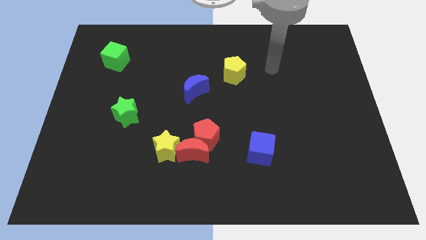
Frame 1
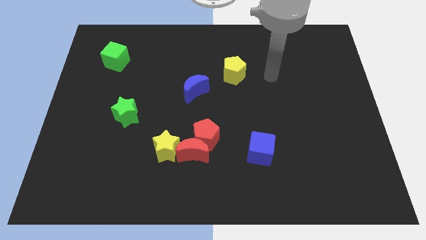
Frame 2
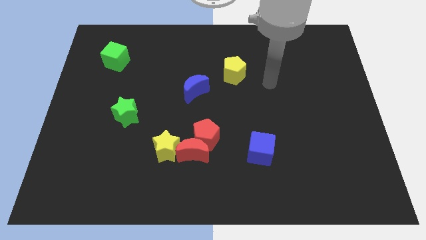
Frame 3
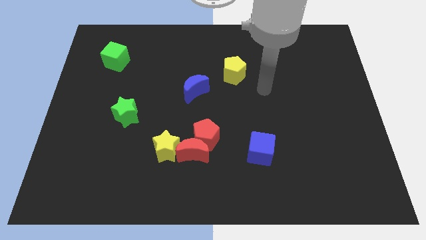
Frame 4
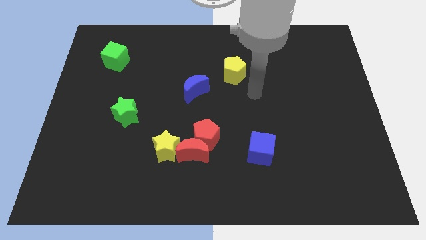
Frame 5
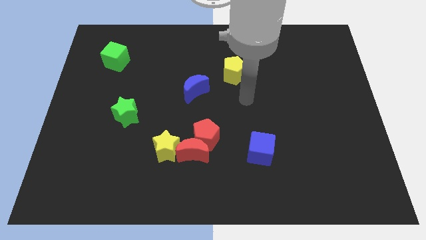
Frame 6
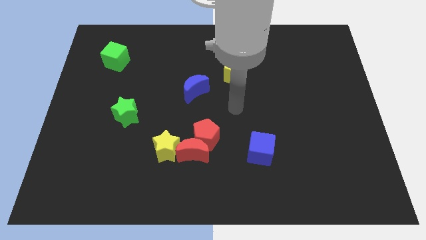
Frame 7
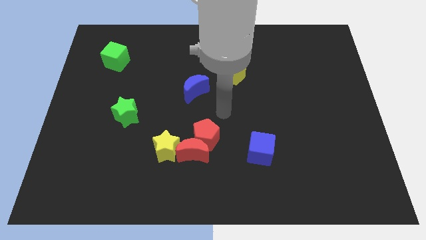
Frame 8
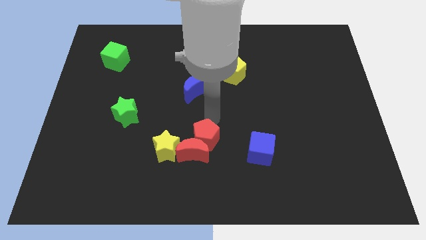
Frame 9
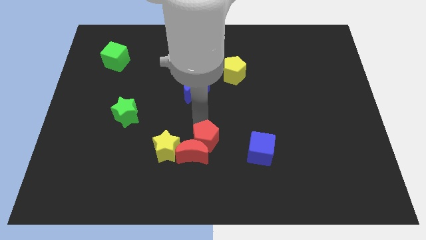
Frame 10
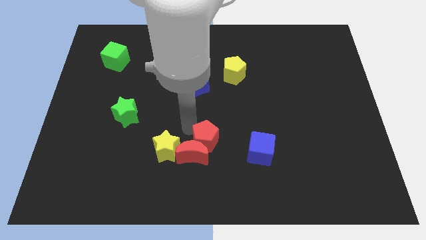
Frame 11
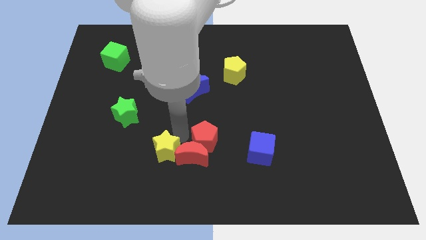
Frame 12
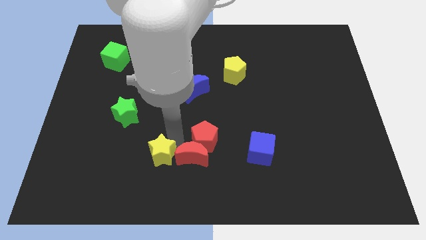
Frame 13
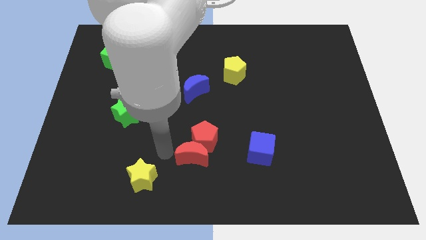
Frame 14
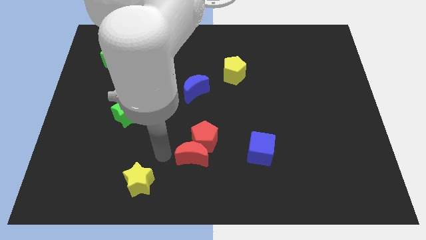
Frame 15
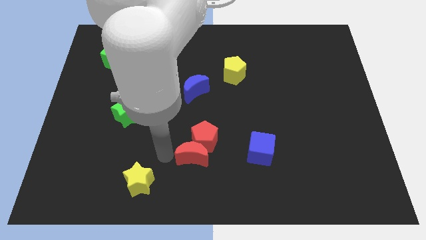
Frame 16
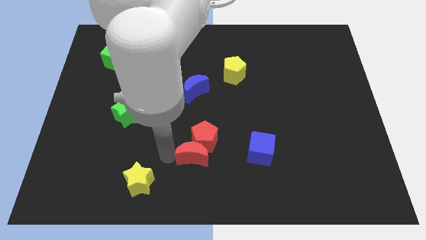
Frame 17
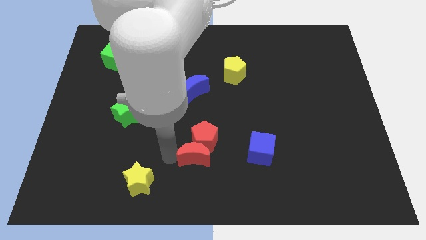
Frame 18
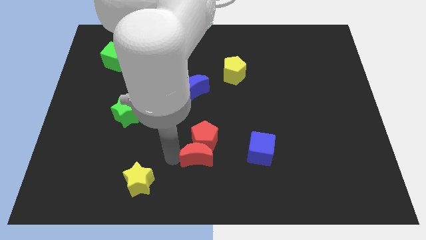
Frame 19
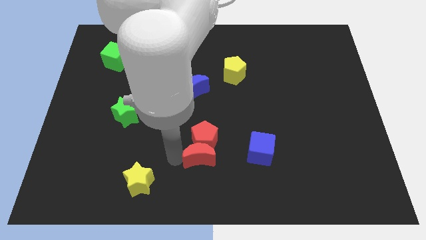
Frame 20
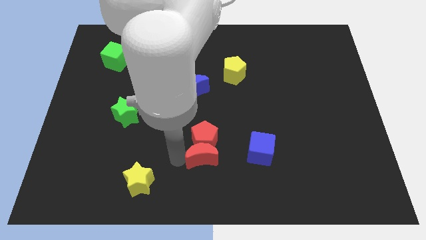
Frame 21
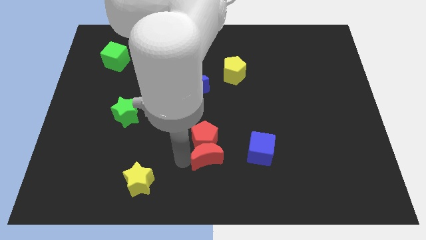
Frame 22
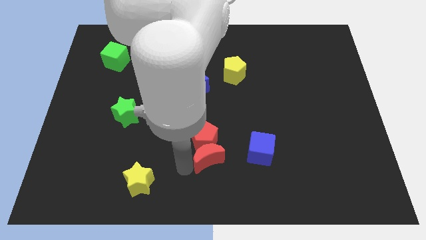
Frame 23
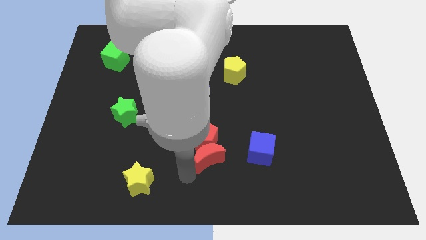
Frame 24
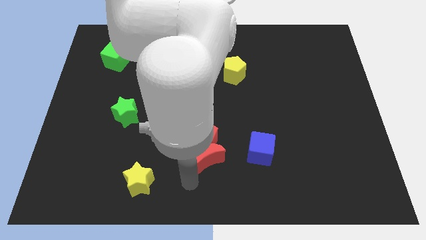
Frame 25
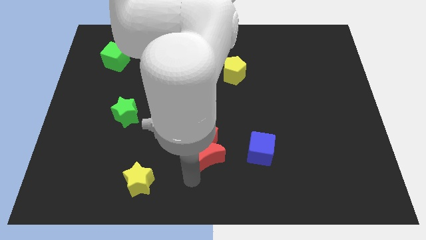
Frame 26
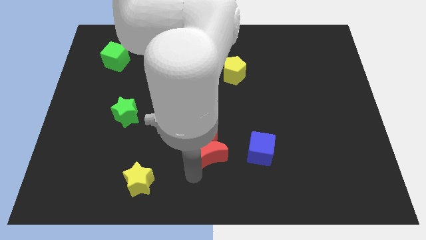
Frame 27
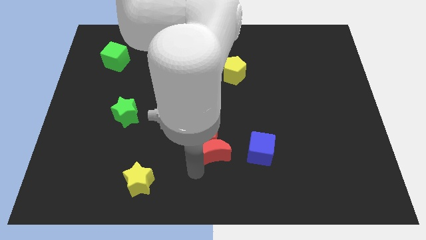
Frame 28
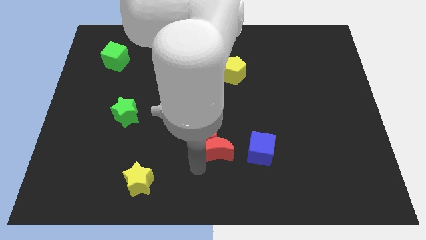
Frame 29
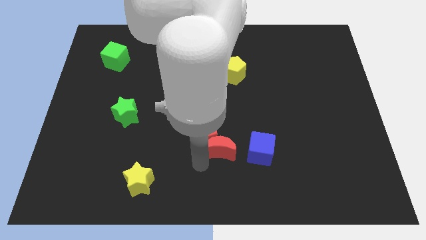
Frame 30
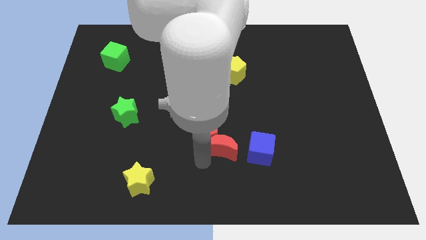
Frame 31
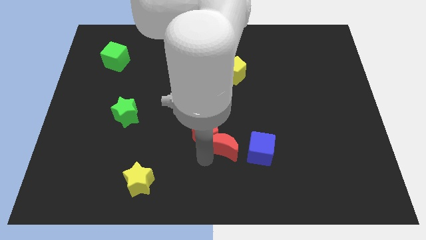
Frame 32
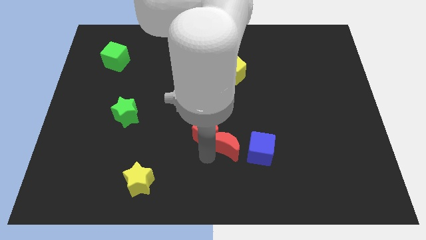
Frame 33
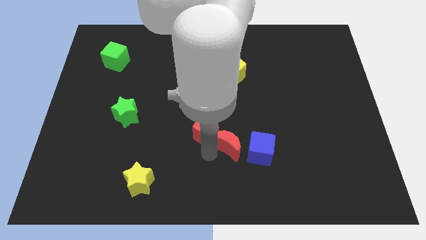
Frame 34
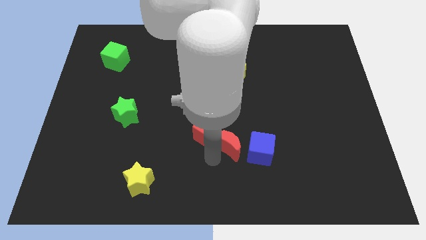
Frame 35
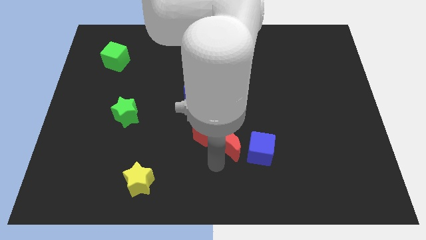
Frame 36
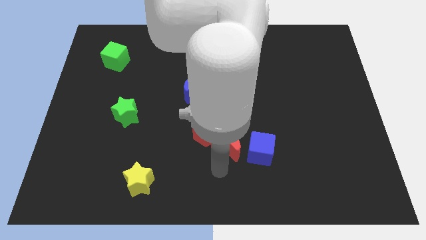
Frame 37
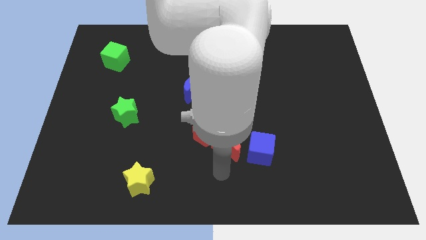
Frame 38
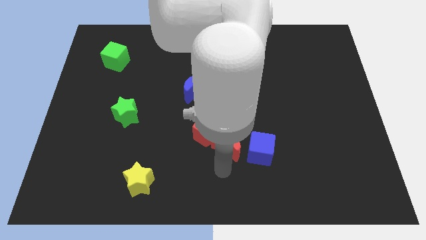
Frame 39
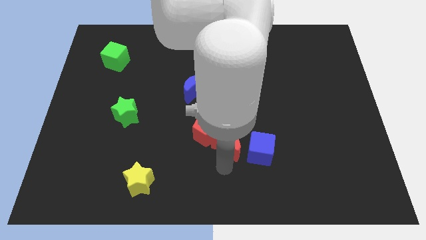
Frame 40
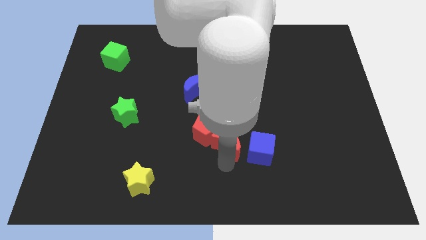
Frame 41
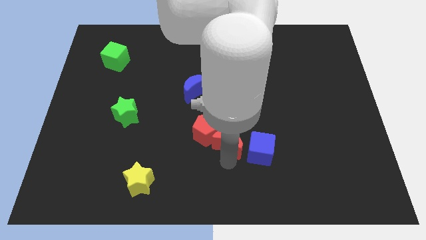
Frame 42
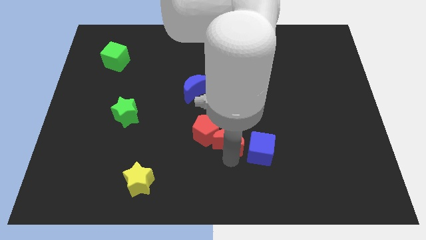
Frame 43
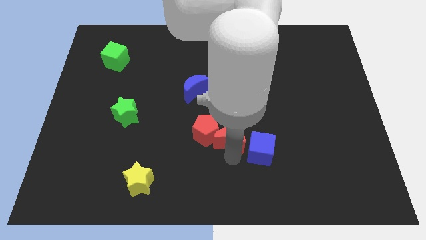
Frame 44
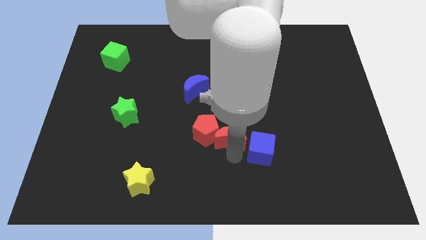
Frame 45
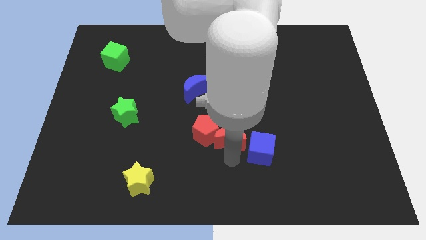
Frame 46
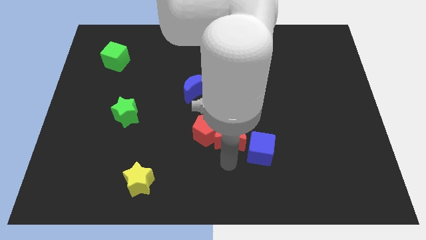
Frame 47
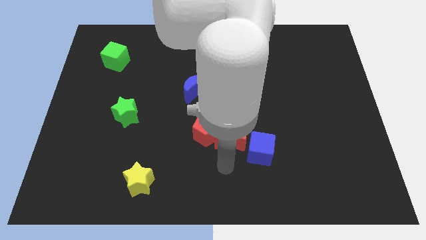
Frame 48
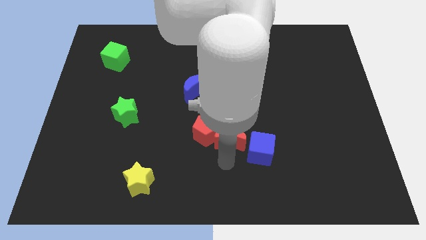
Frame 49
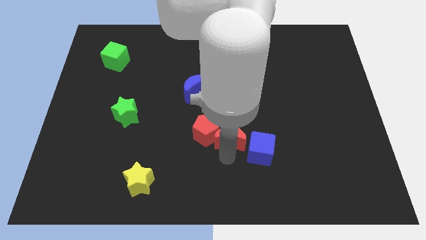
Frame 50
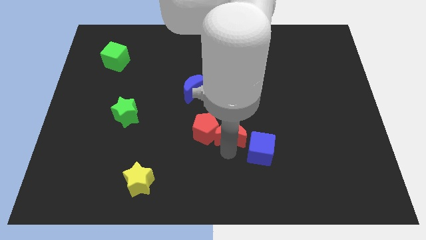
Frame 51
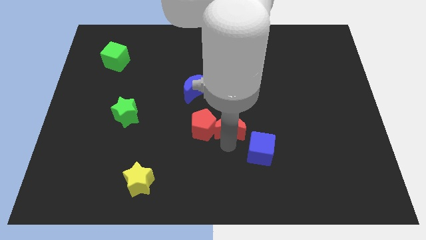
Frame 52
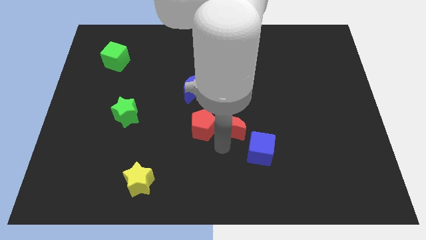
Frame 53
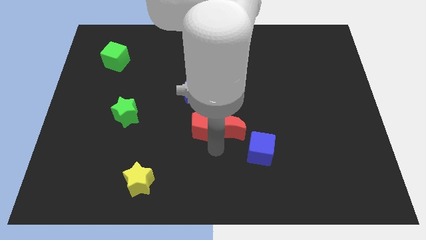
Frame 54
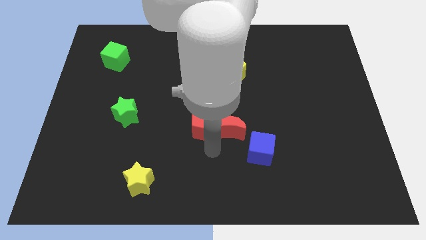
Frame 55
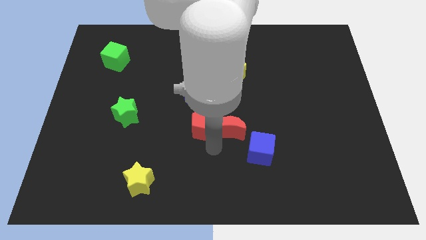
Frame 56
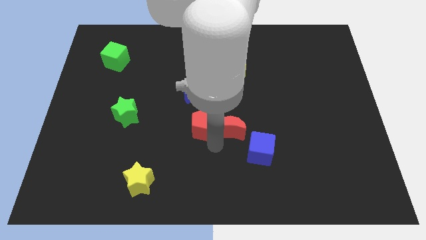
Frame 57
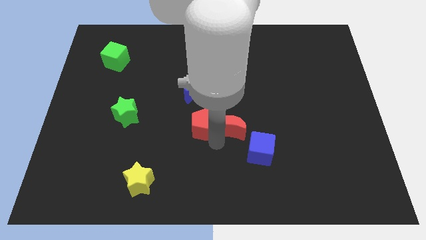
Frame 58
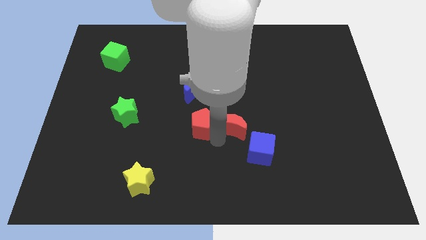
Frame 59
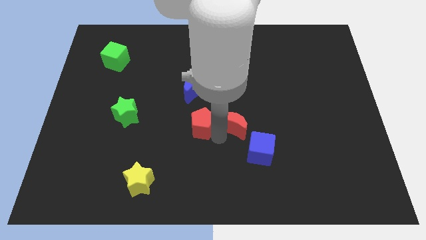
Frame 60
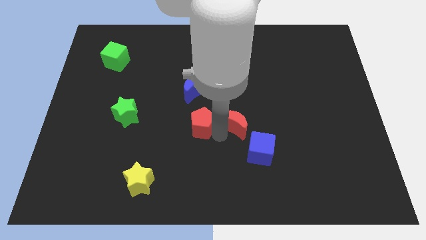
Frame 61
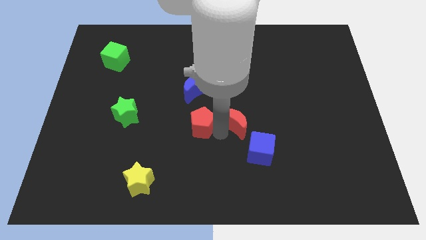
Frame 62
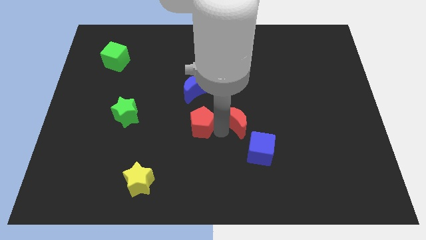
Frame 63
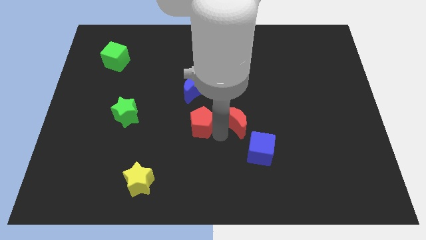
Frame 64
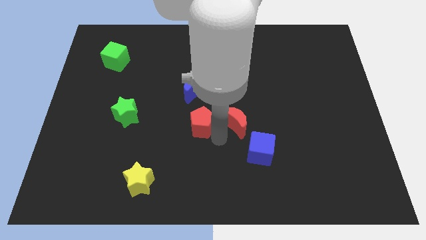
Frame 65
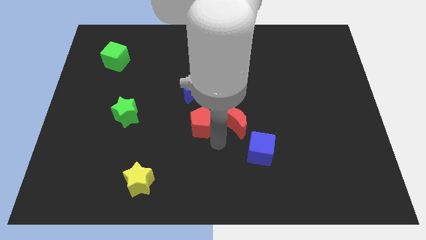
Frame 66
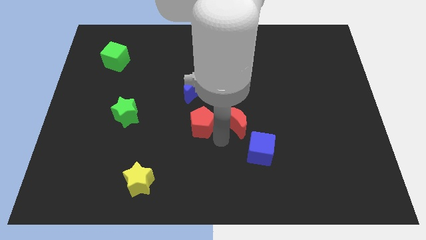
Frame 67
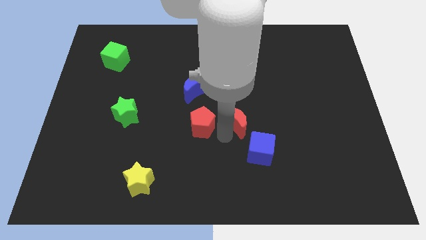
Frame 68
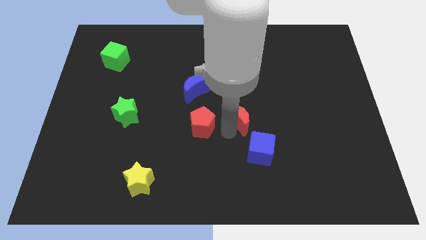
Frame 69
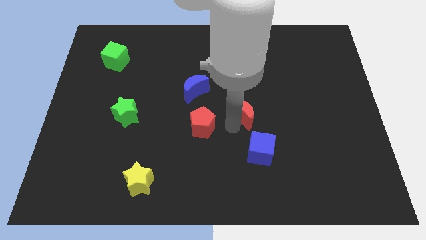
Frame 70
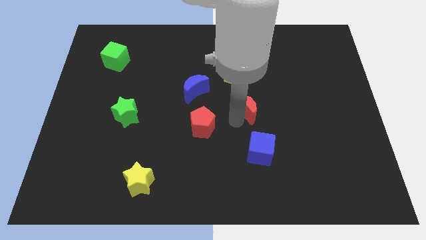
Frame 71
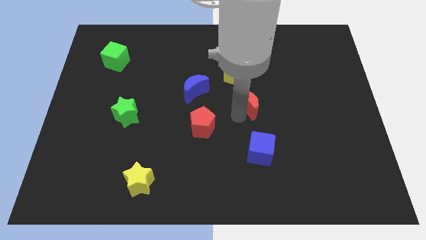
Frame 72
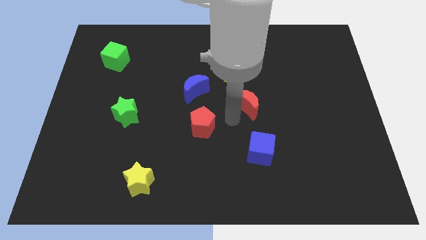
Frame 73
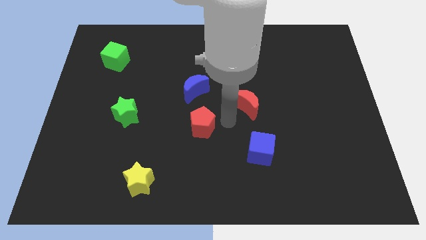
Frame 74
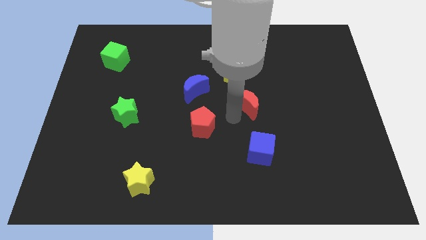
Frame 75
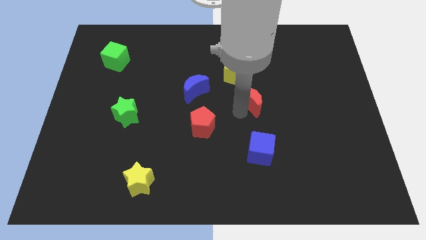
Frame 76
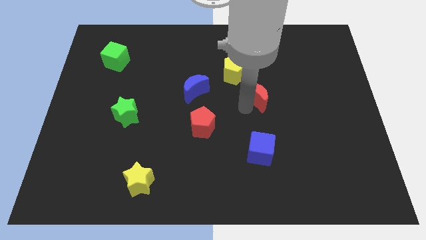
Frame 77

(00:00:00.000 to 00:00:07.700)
move the red moon up and then right

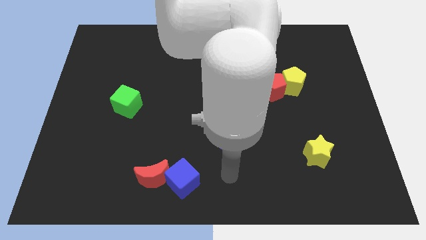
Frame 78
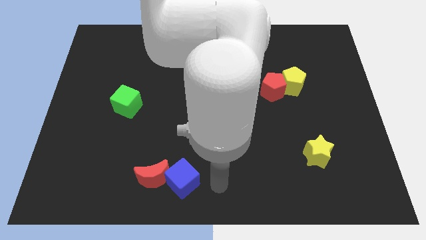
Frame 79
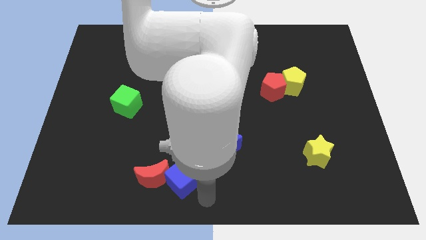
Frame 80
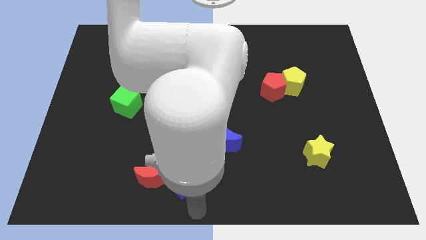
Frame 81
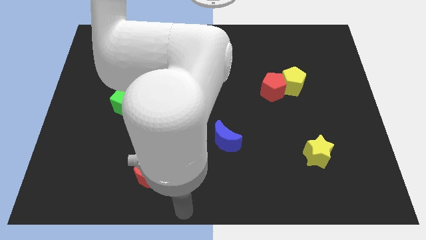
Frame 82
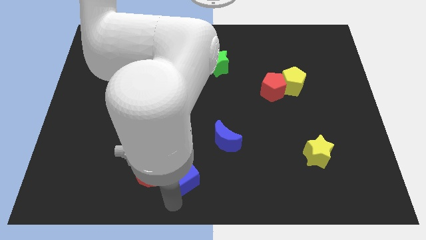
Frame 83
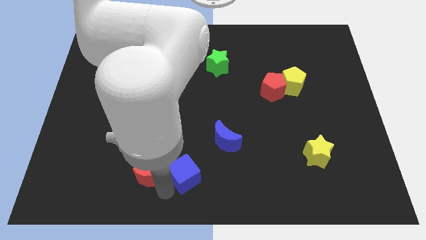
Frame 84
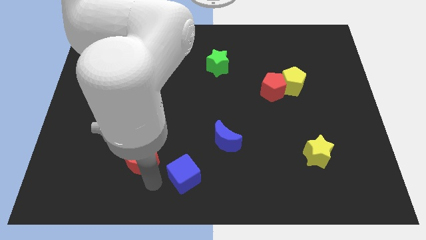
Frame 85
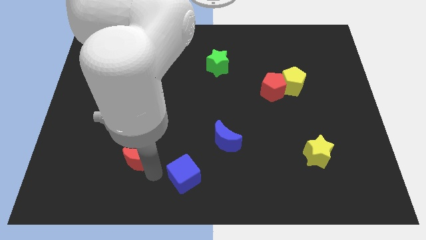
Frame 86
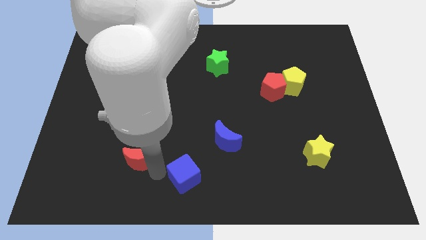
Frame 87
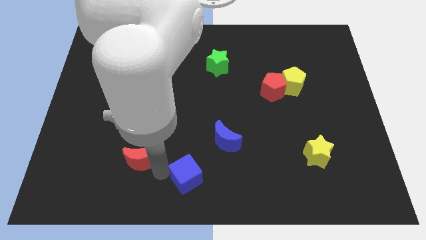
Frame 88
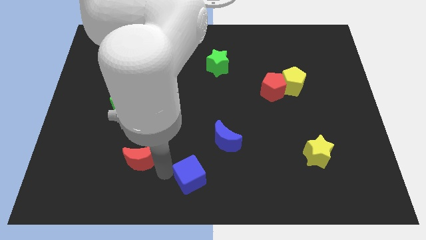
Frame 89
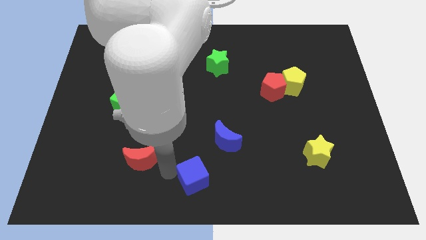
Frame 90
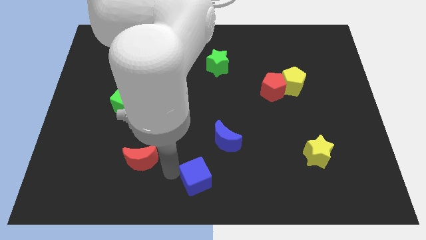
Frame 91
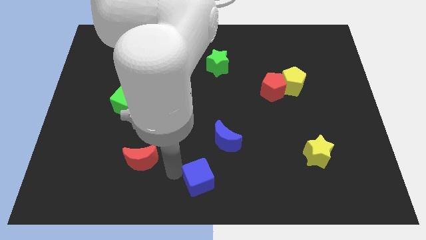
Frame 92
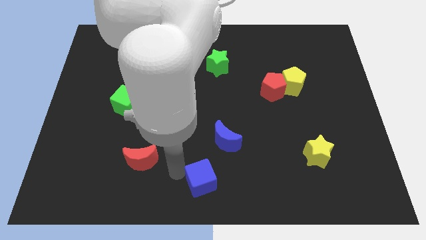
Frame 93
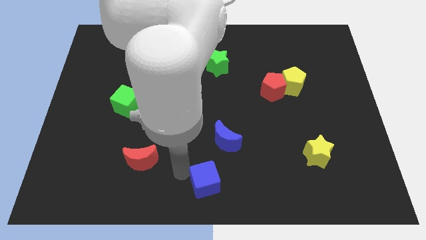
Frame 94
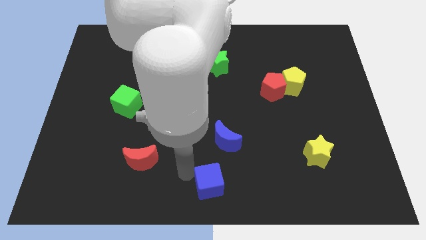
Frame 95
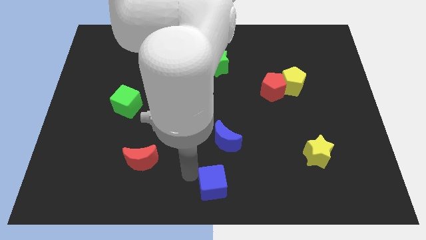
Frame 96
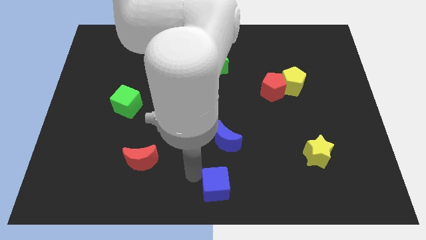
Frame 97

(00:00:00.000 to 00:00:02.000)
slightly move the blue cube right
